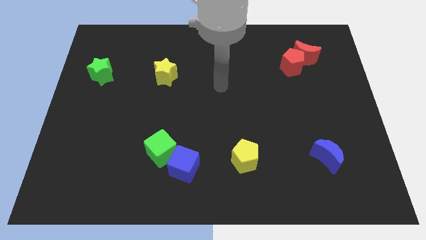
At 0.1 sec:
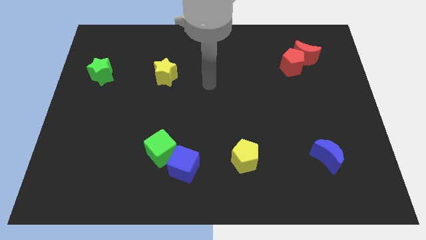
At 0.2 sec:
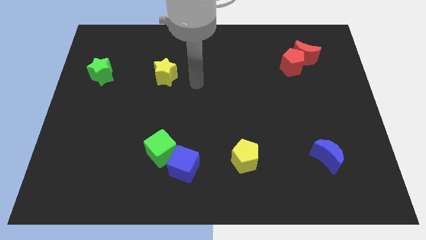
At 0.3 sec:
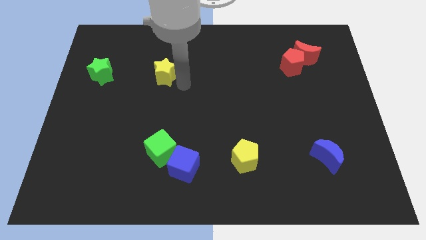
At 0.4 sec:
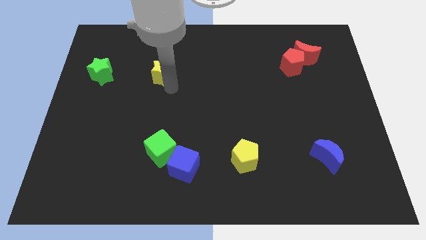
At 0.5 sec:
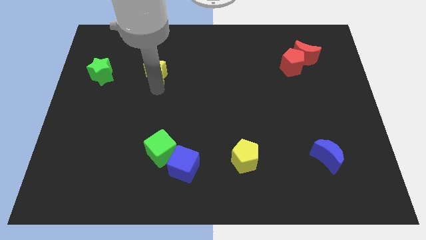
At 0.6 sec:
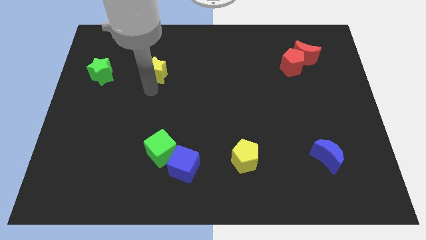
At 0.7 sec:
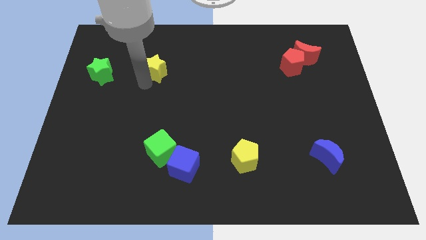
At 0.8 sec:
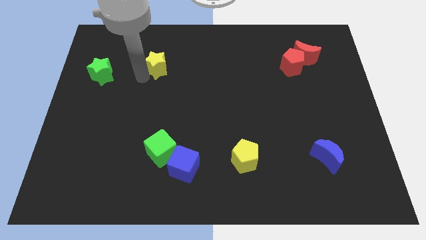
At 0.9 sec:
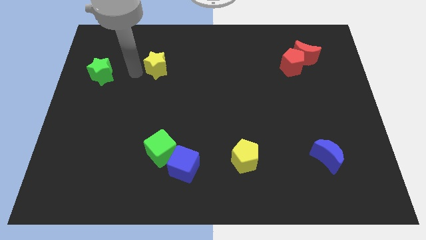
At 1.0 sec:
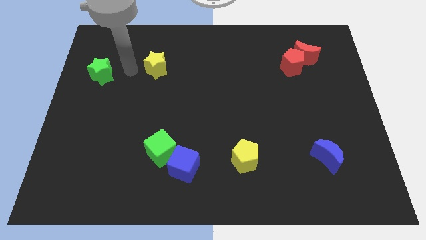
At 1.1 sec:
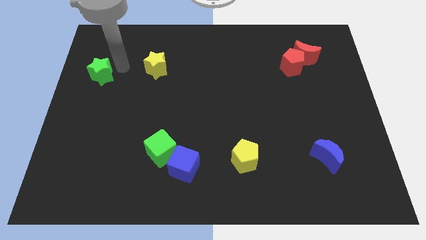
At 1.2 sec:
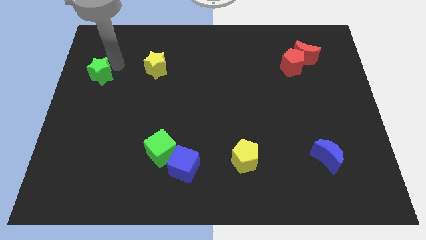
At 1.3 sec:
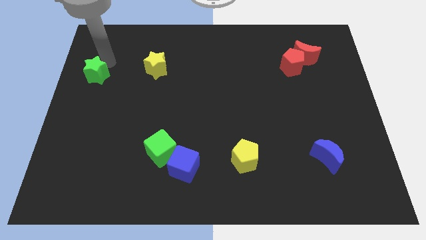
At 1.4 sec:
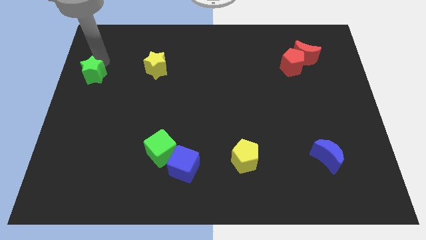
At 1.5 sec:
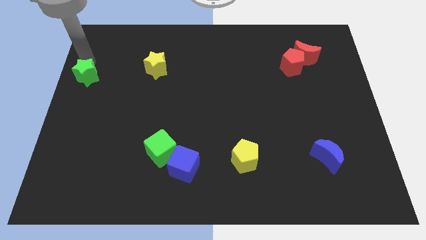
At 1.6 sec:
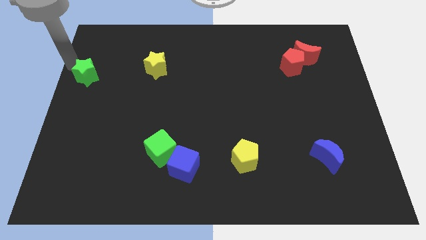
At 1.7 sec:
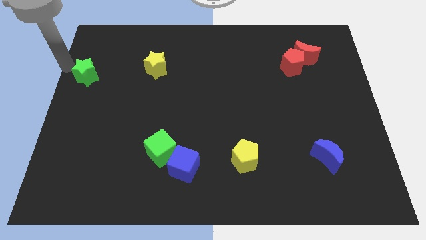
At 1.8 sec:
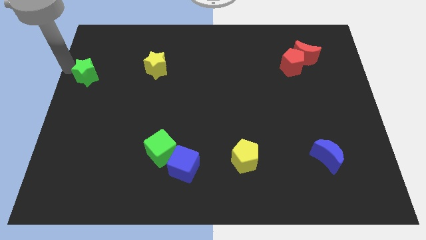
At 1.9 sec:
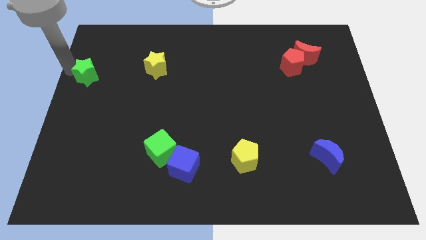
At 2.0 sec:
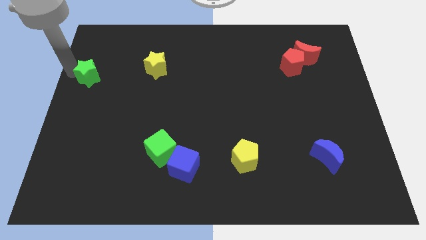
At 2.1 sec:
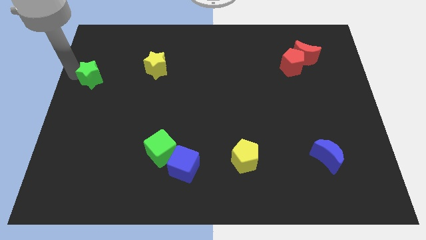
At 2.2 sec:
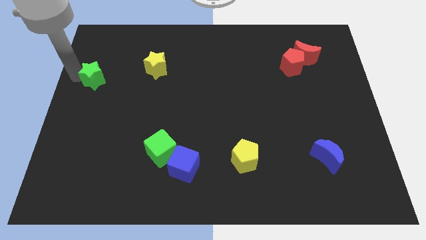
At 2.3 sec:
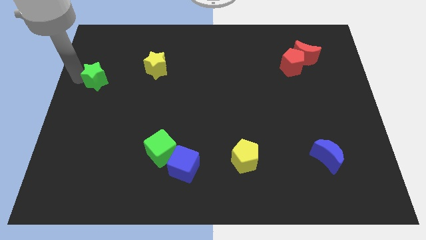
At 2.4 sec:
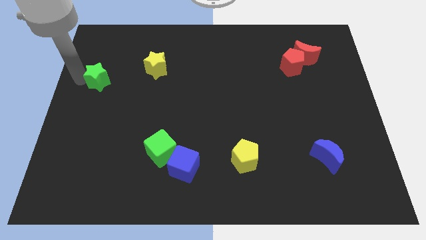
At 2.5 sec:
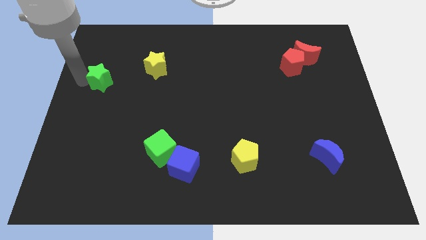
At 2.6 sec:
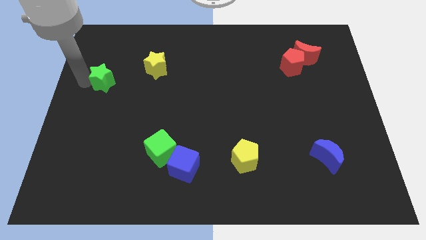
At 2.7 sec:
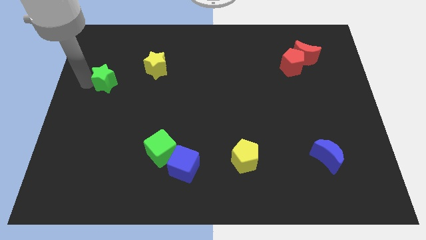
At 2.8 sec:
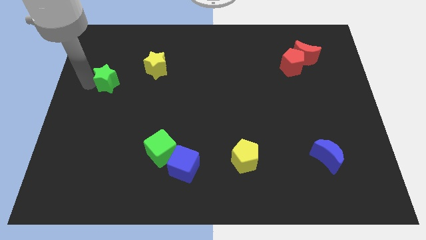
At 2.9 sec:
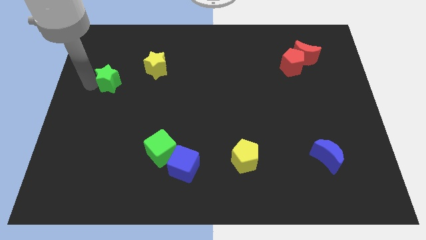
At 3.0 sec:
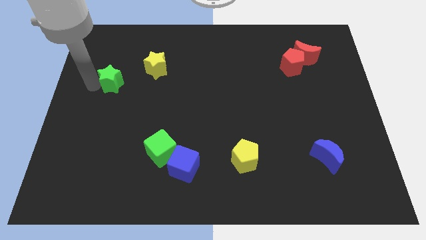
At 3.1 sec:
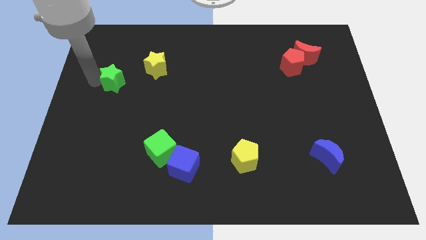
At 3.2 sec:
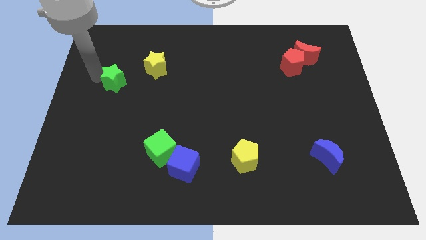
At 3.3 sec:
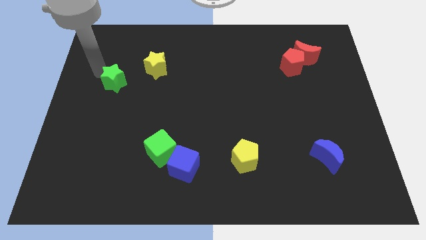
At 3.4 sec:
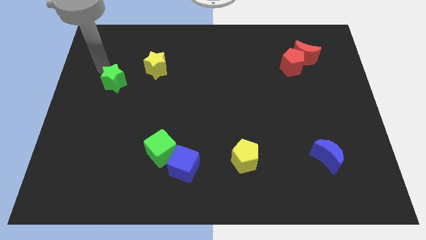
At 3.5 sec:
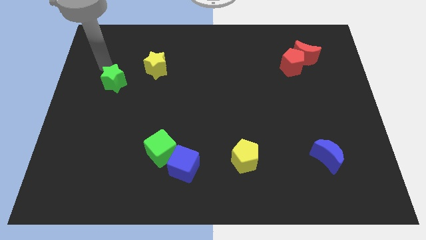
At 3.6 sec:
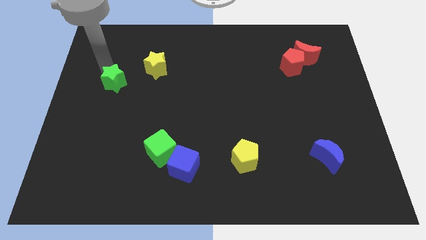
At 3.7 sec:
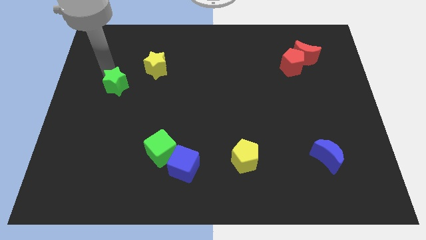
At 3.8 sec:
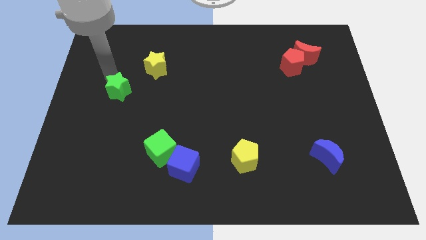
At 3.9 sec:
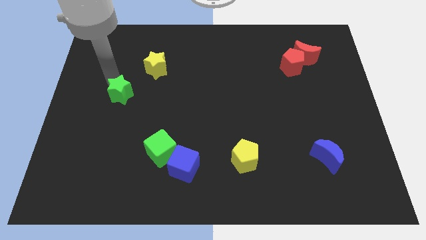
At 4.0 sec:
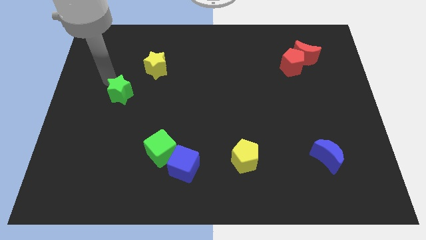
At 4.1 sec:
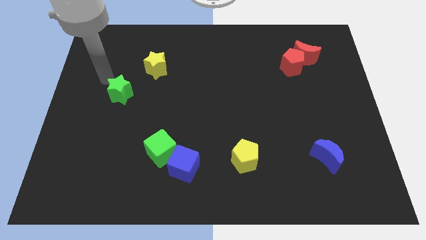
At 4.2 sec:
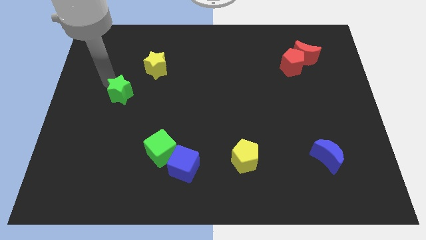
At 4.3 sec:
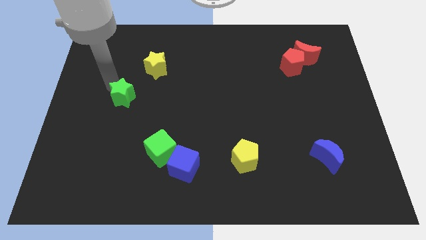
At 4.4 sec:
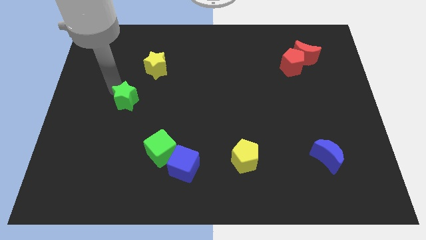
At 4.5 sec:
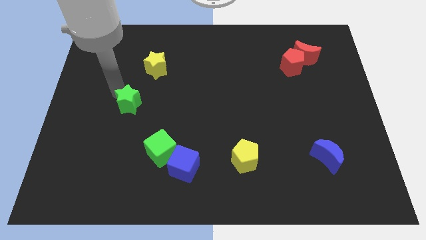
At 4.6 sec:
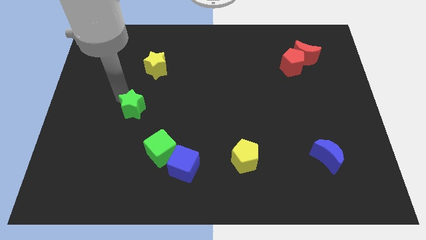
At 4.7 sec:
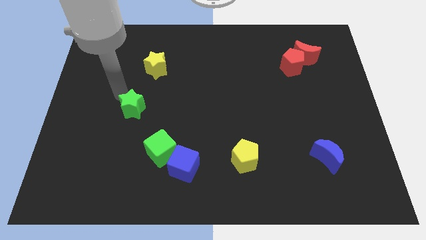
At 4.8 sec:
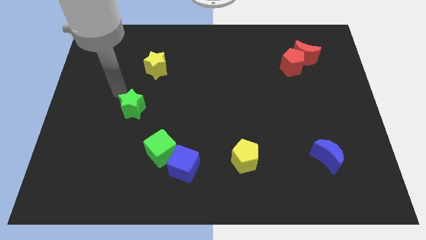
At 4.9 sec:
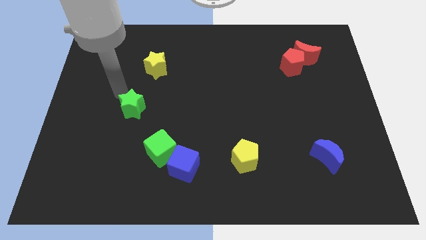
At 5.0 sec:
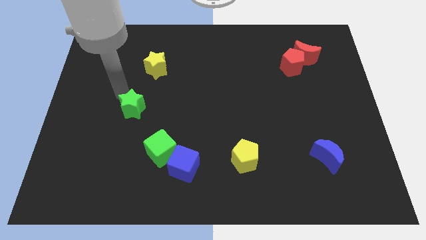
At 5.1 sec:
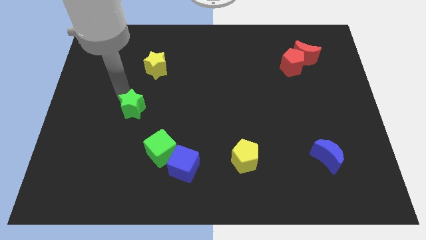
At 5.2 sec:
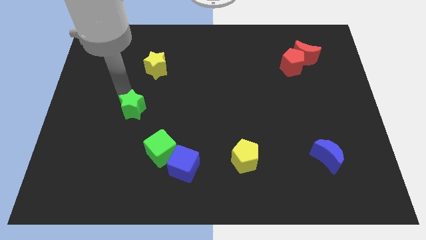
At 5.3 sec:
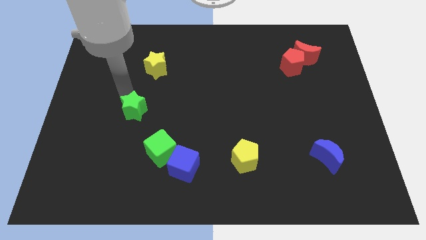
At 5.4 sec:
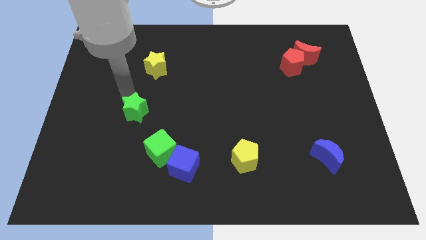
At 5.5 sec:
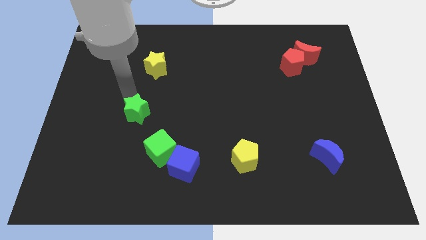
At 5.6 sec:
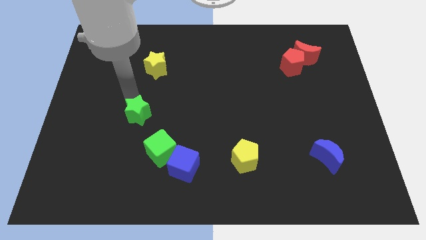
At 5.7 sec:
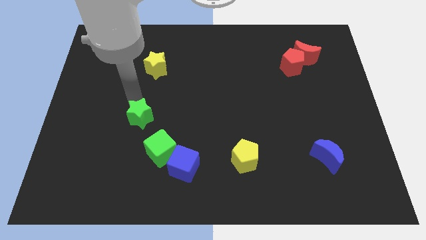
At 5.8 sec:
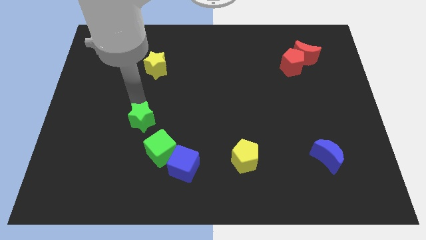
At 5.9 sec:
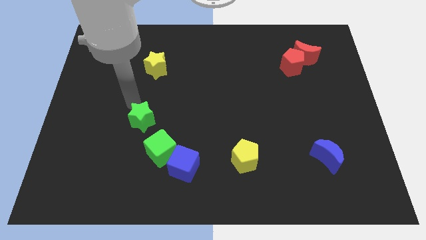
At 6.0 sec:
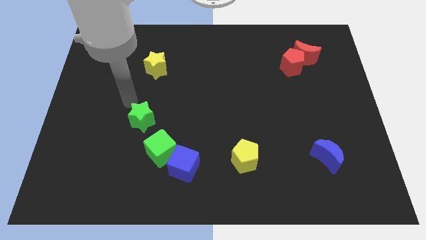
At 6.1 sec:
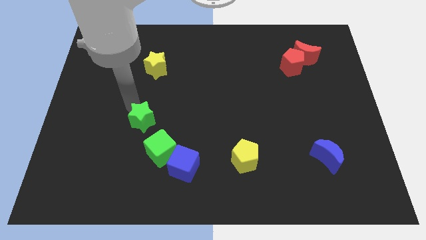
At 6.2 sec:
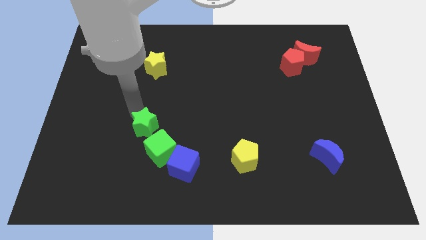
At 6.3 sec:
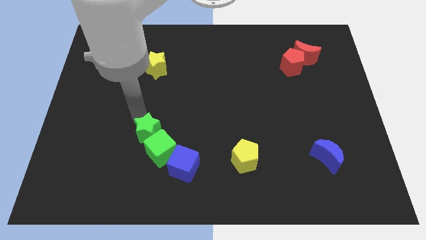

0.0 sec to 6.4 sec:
slide the green star to the green cube
